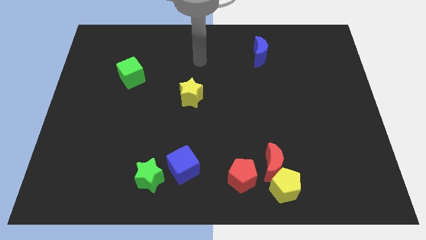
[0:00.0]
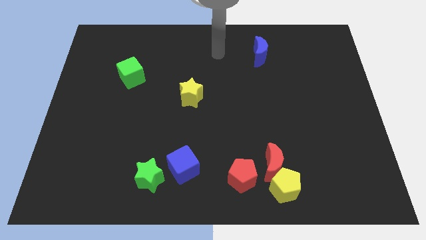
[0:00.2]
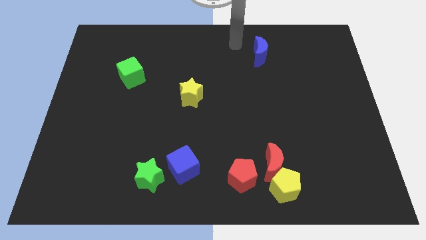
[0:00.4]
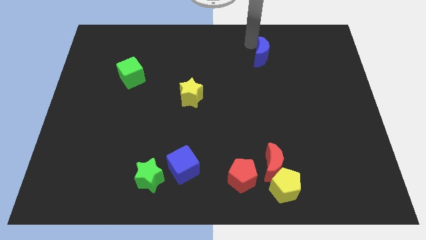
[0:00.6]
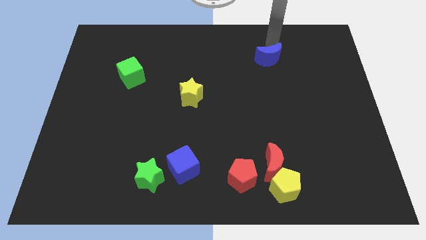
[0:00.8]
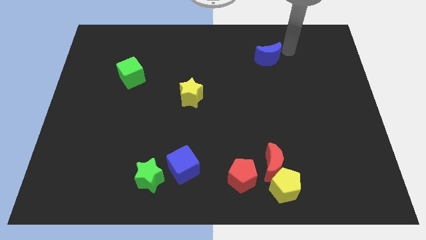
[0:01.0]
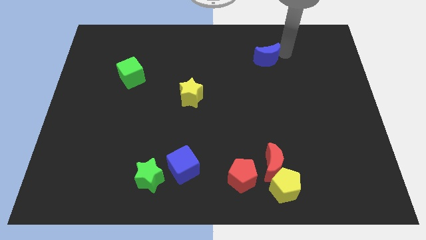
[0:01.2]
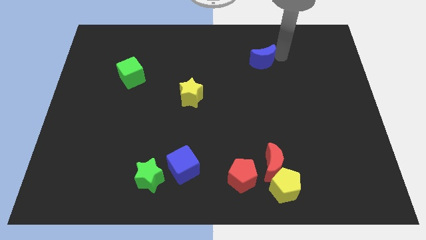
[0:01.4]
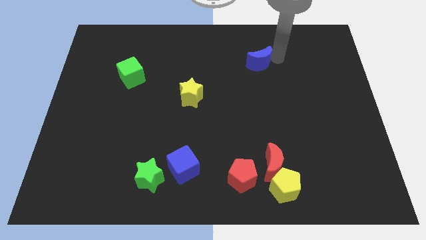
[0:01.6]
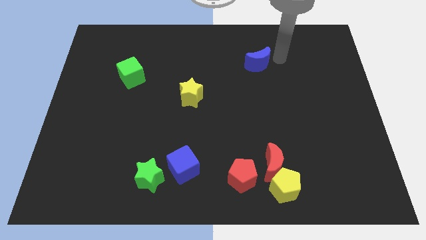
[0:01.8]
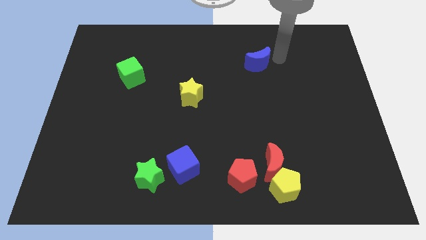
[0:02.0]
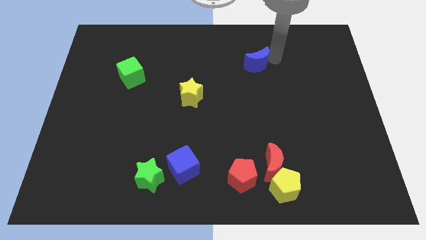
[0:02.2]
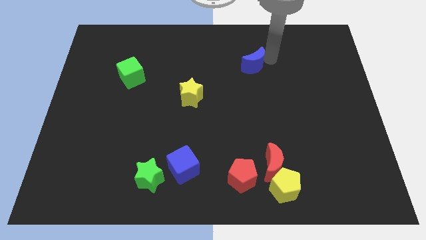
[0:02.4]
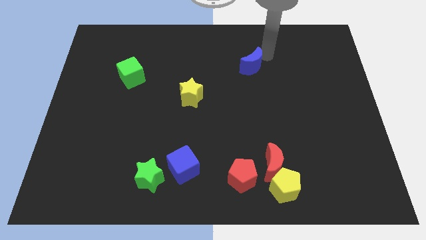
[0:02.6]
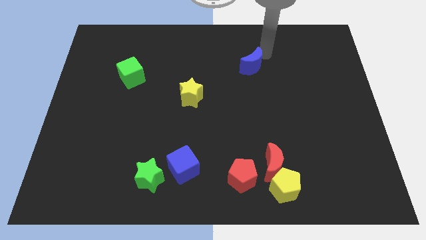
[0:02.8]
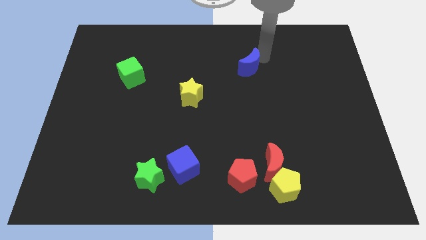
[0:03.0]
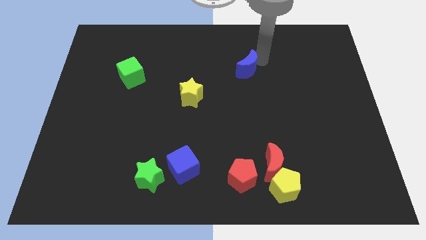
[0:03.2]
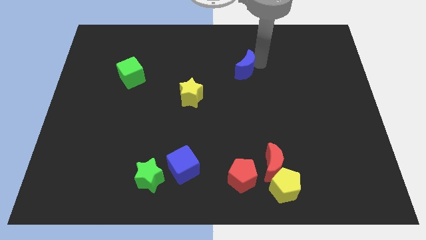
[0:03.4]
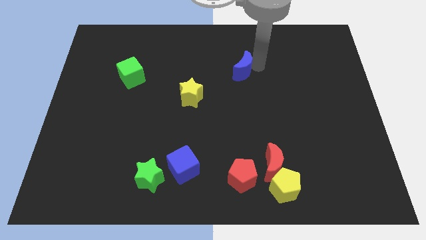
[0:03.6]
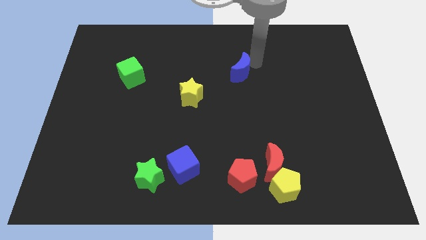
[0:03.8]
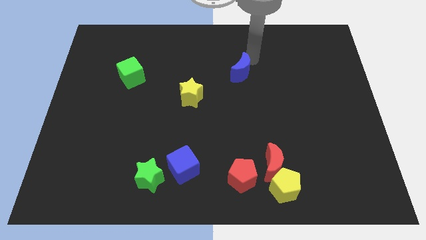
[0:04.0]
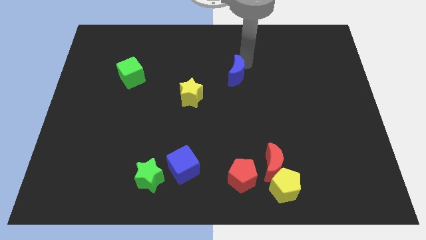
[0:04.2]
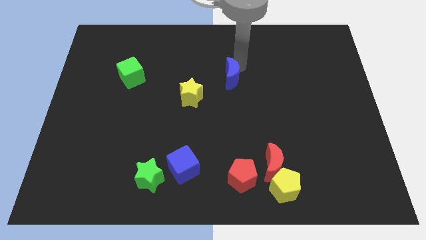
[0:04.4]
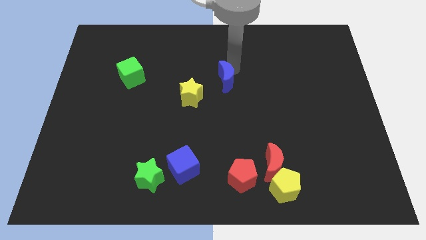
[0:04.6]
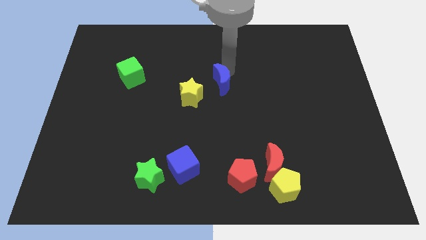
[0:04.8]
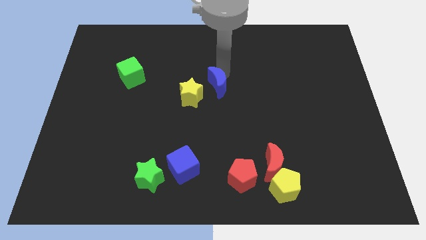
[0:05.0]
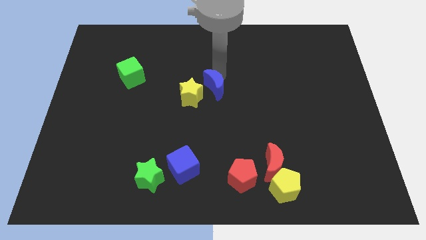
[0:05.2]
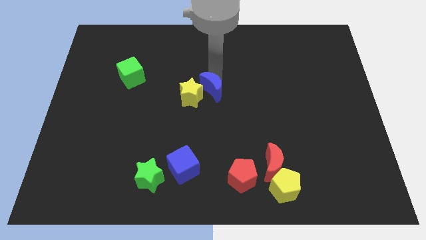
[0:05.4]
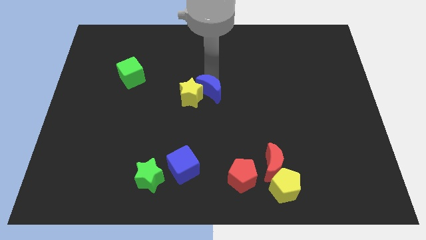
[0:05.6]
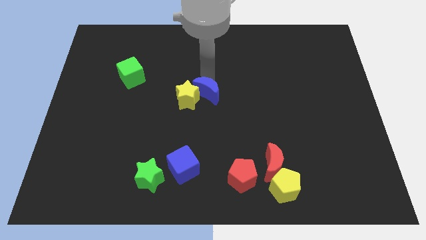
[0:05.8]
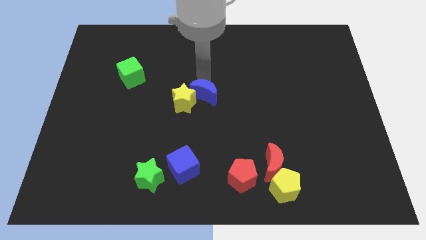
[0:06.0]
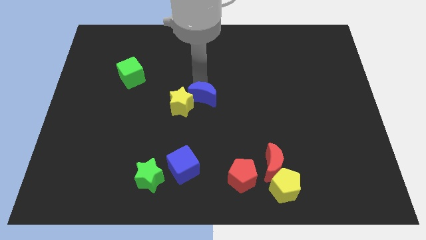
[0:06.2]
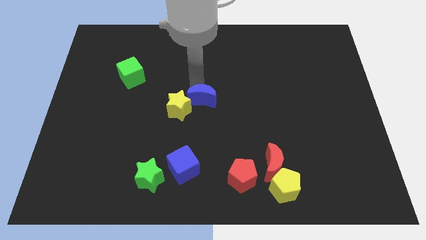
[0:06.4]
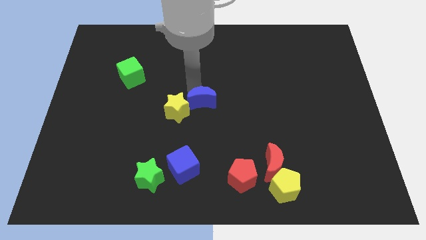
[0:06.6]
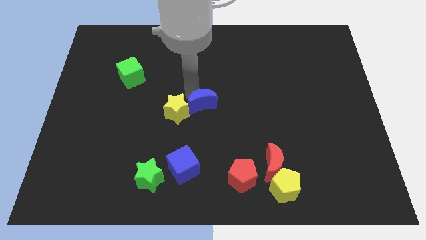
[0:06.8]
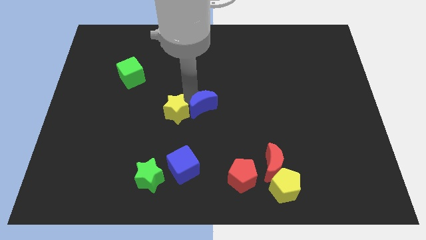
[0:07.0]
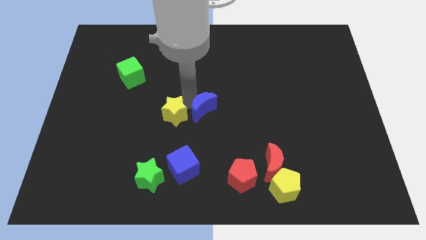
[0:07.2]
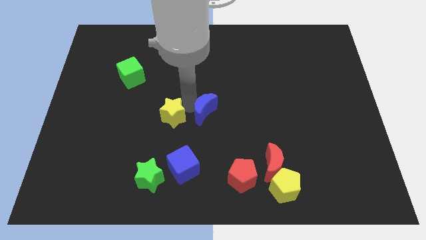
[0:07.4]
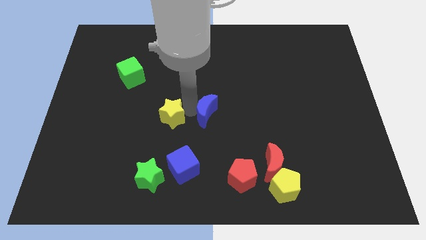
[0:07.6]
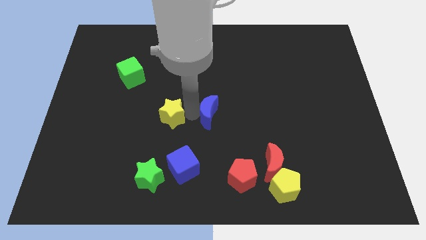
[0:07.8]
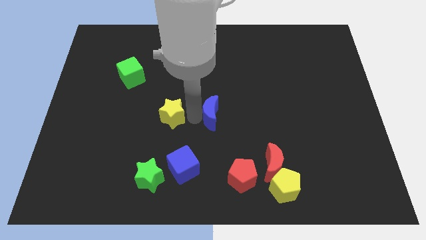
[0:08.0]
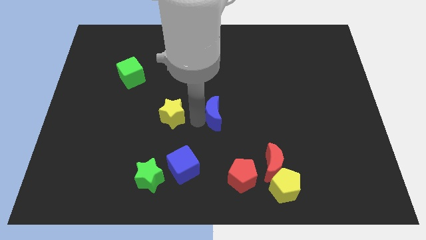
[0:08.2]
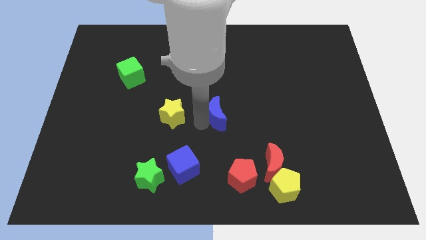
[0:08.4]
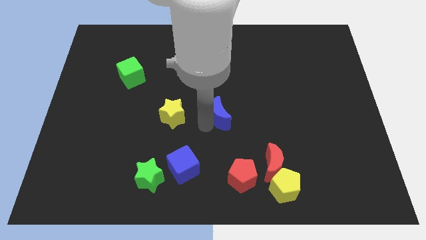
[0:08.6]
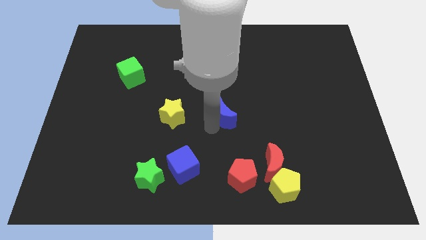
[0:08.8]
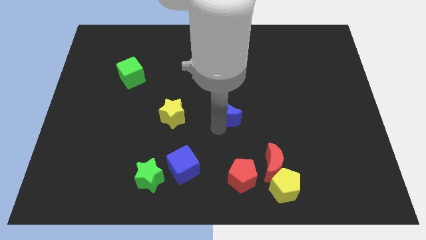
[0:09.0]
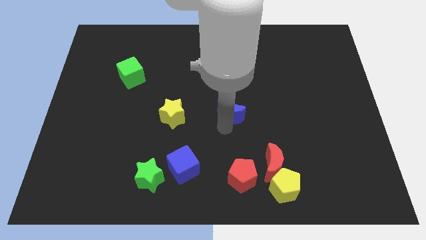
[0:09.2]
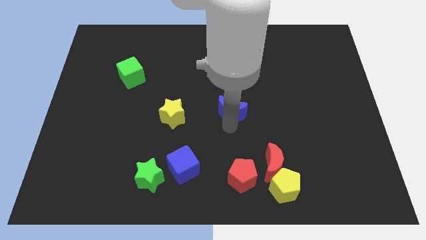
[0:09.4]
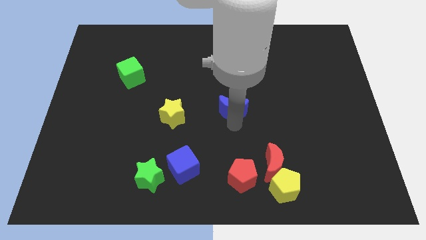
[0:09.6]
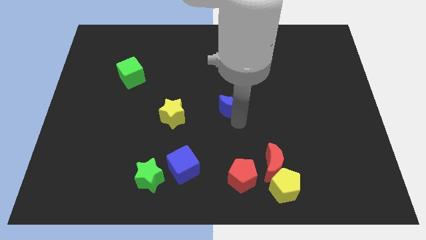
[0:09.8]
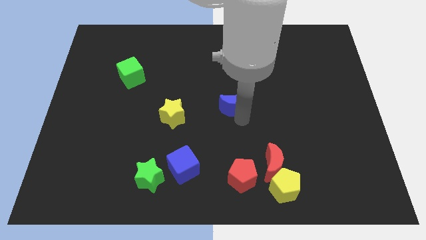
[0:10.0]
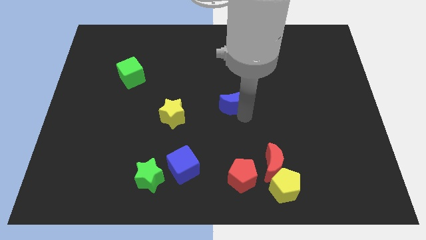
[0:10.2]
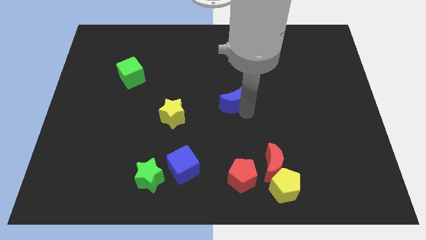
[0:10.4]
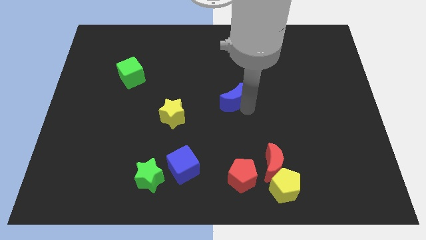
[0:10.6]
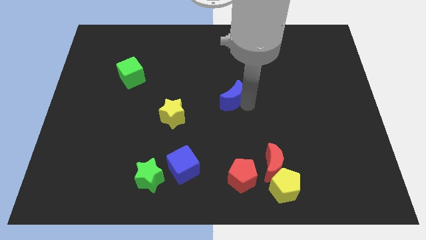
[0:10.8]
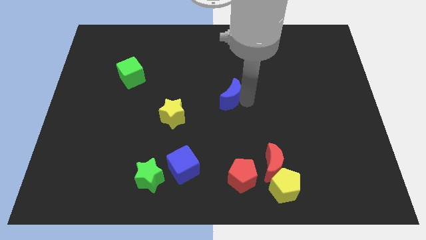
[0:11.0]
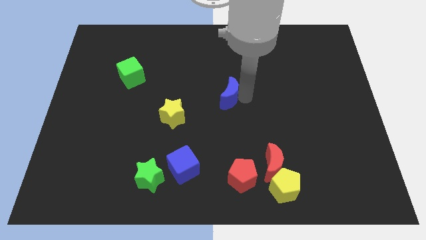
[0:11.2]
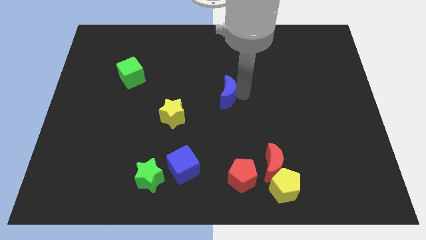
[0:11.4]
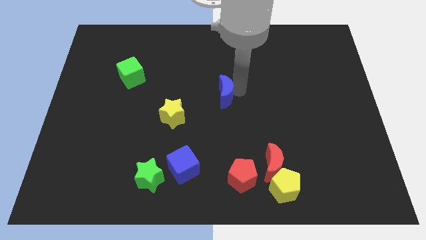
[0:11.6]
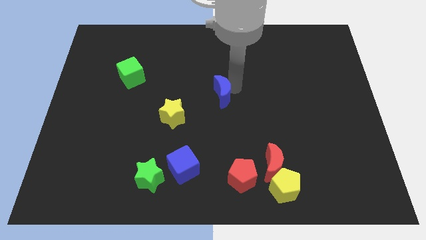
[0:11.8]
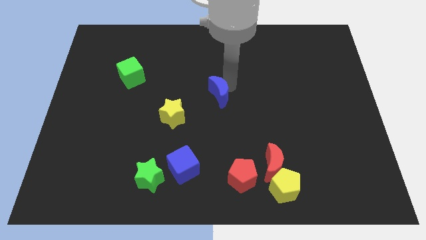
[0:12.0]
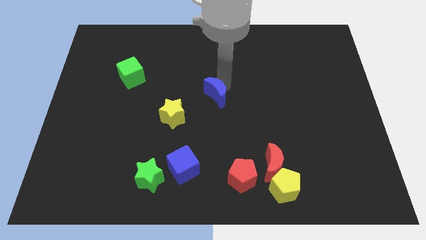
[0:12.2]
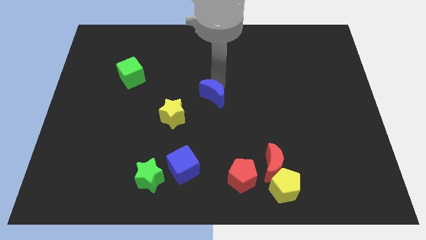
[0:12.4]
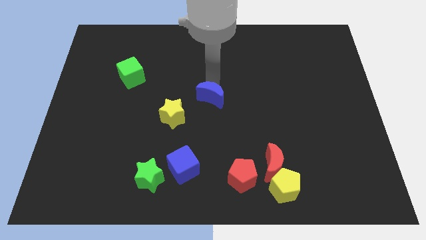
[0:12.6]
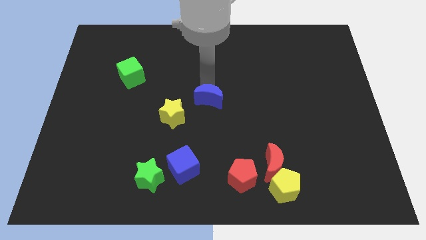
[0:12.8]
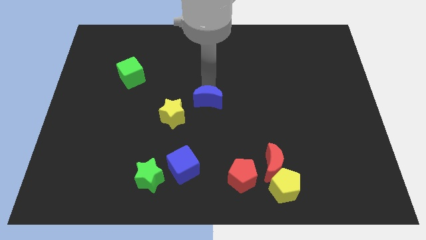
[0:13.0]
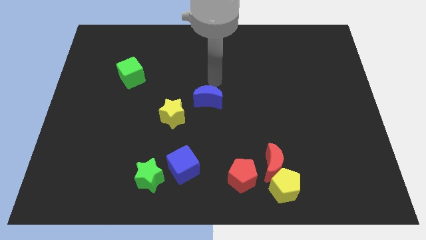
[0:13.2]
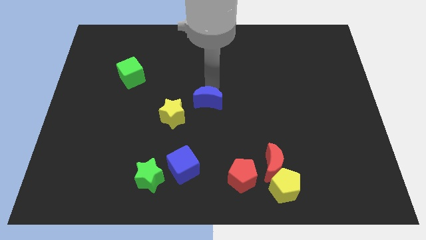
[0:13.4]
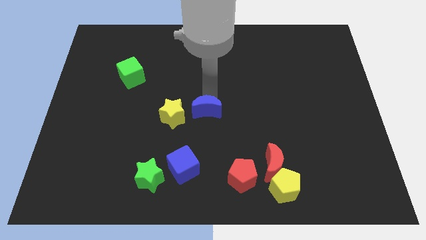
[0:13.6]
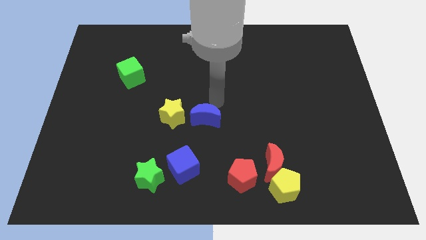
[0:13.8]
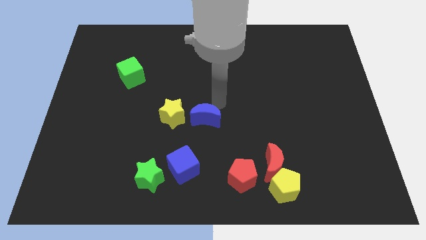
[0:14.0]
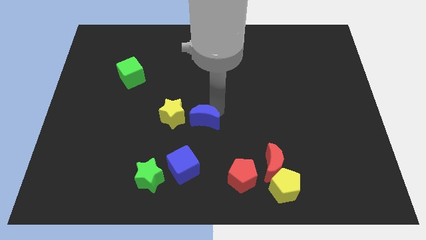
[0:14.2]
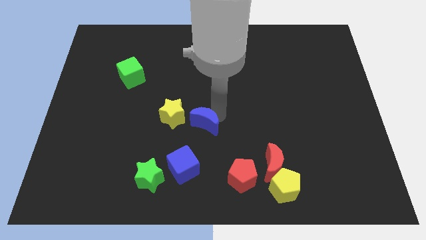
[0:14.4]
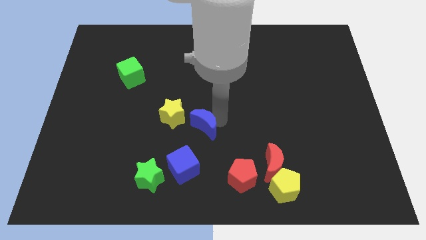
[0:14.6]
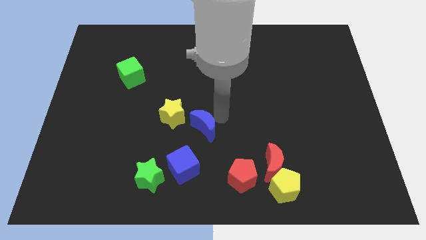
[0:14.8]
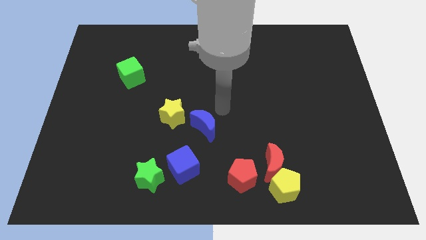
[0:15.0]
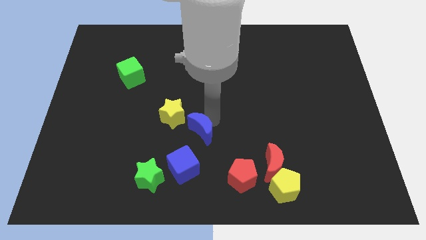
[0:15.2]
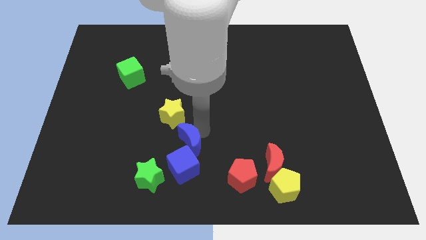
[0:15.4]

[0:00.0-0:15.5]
put the blue moon to the top right of the green star
